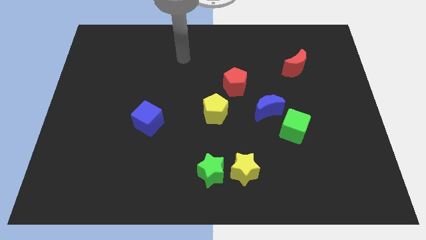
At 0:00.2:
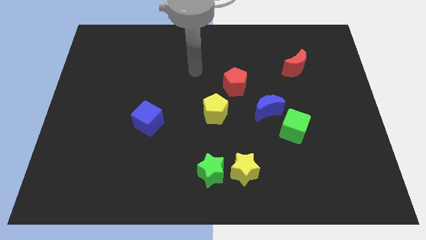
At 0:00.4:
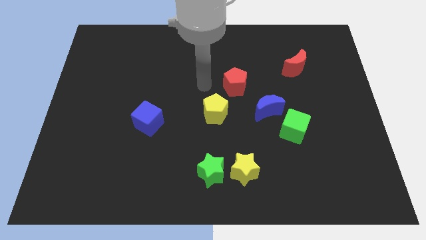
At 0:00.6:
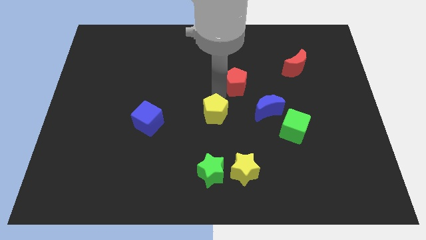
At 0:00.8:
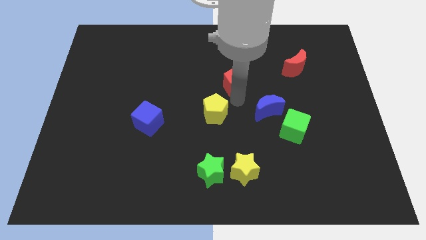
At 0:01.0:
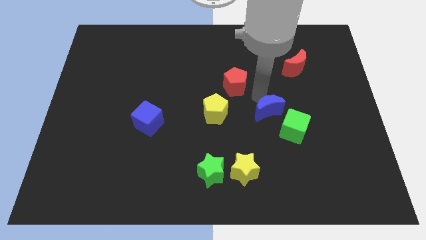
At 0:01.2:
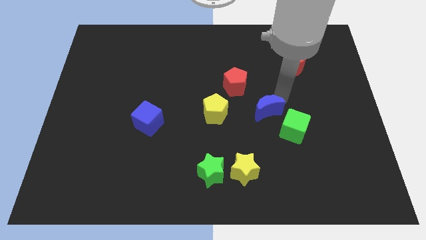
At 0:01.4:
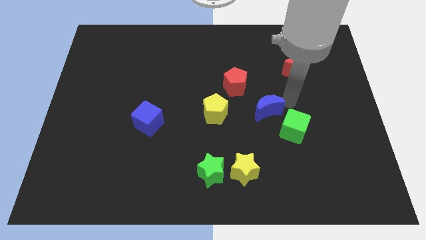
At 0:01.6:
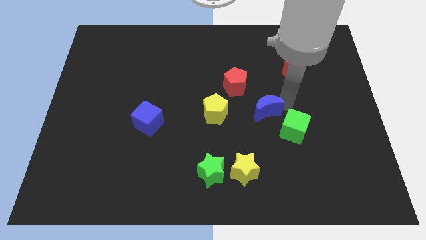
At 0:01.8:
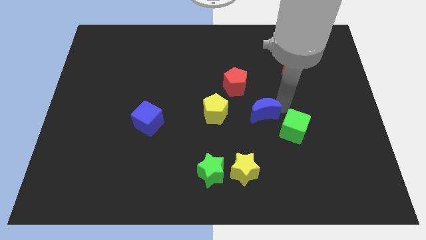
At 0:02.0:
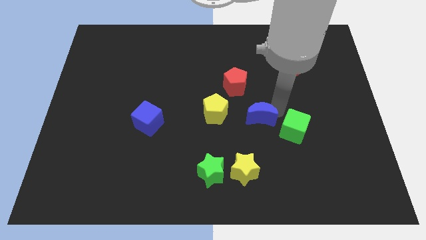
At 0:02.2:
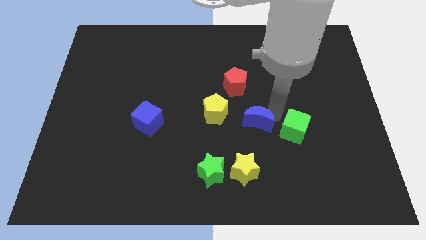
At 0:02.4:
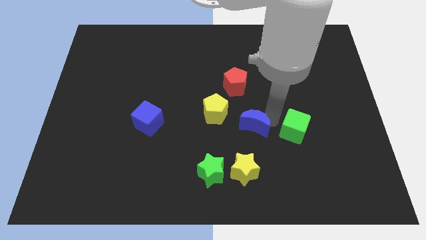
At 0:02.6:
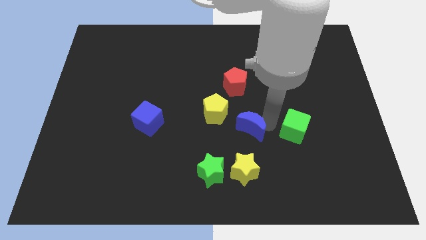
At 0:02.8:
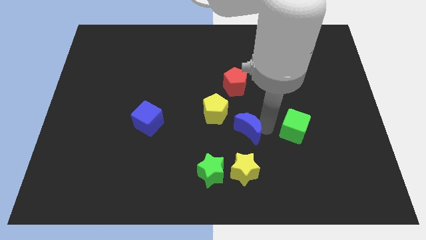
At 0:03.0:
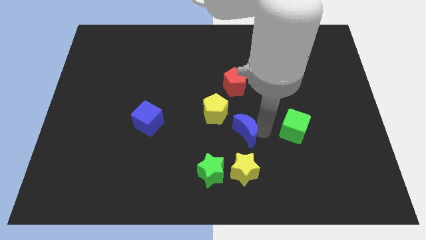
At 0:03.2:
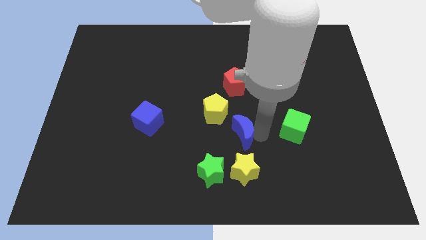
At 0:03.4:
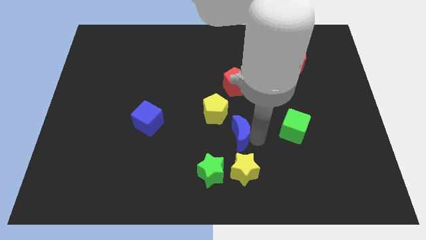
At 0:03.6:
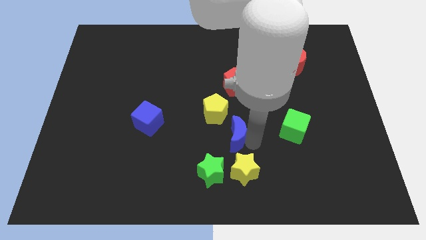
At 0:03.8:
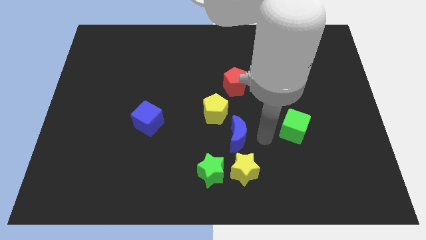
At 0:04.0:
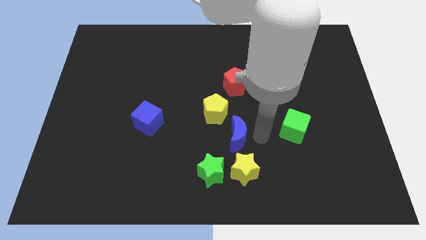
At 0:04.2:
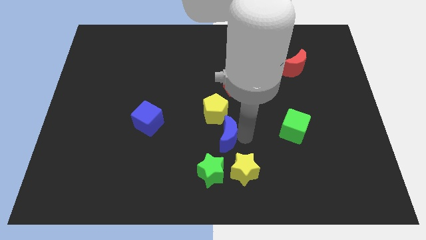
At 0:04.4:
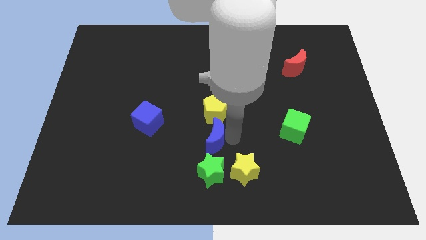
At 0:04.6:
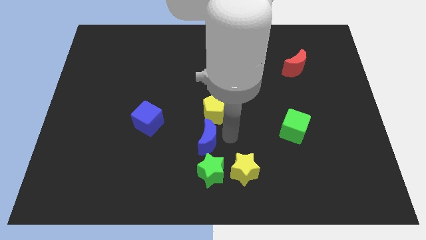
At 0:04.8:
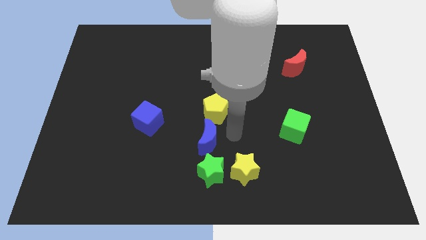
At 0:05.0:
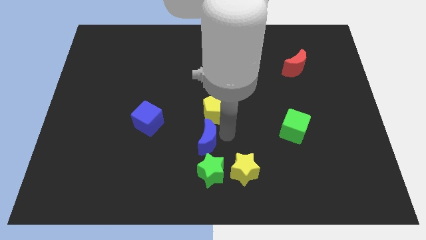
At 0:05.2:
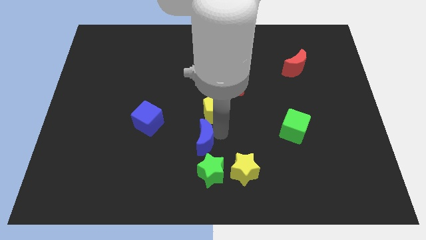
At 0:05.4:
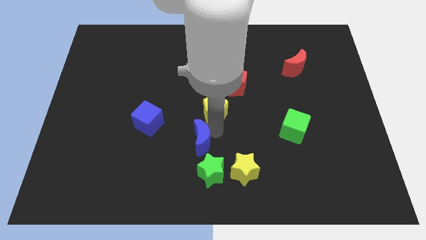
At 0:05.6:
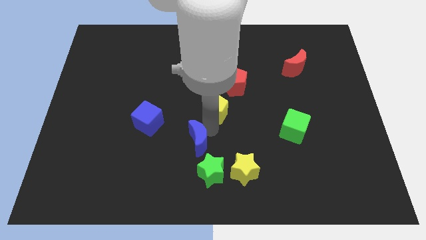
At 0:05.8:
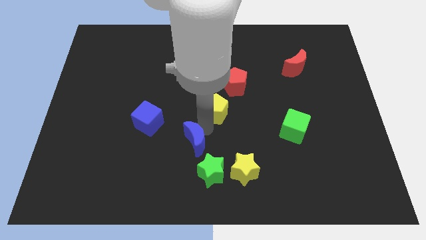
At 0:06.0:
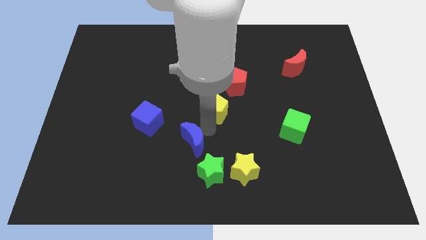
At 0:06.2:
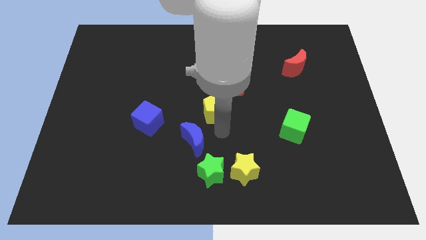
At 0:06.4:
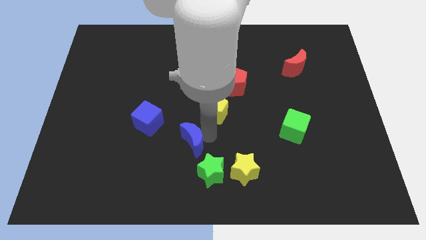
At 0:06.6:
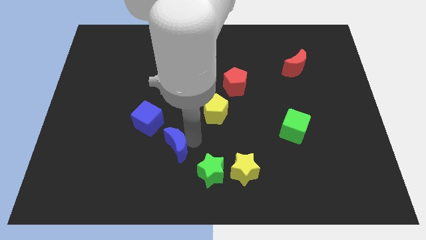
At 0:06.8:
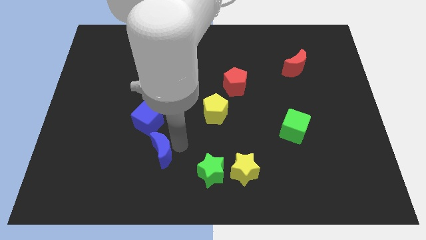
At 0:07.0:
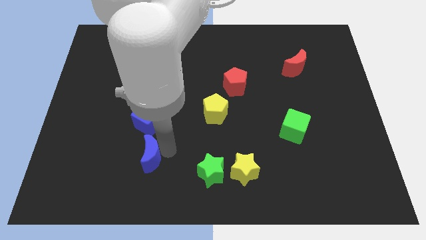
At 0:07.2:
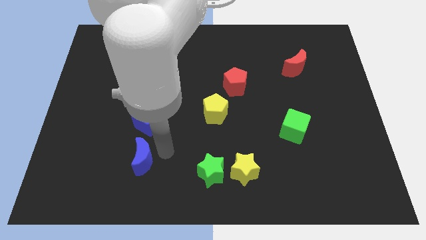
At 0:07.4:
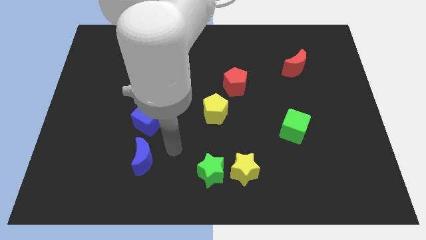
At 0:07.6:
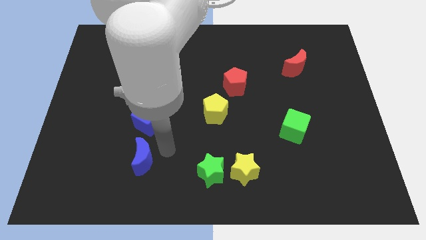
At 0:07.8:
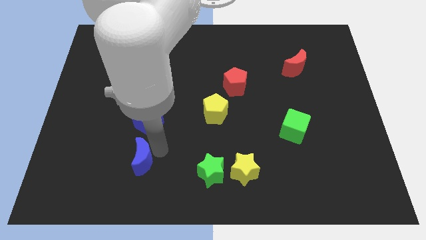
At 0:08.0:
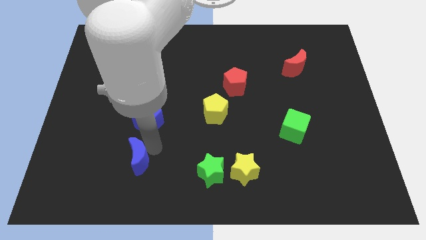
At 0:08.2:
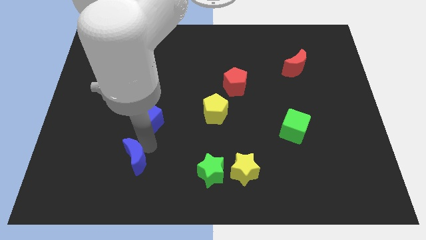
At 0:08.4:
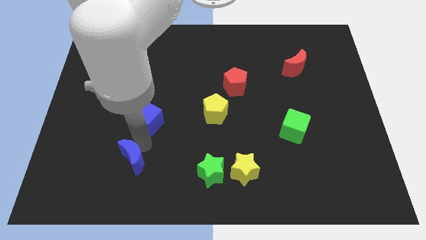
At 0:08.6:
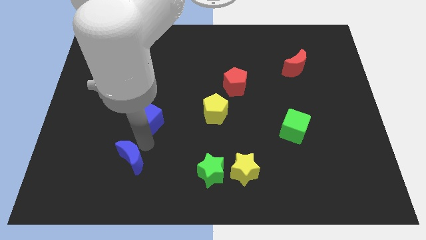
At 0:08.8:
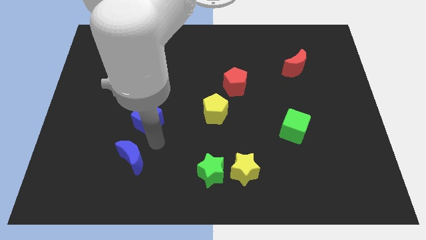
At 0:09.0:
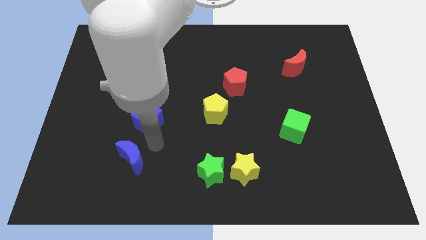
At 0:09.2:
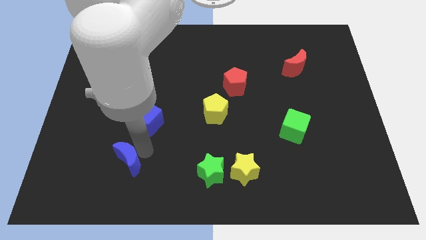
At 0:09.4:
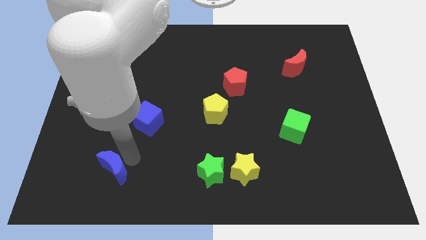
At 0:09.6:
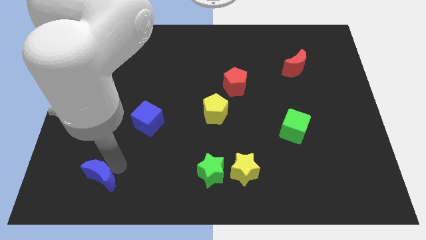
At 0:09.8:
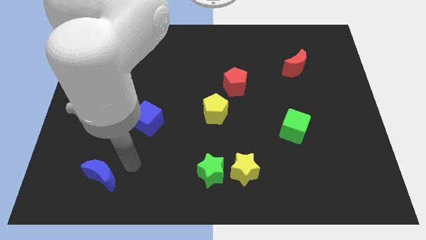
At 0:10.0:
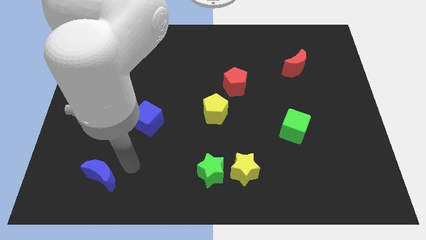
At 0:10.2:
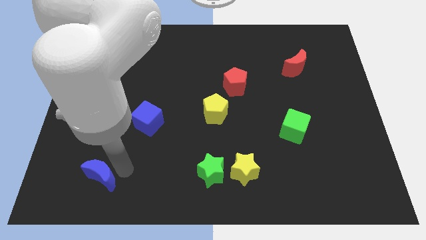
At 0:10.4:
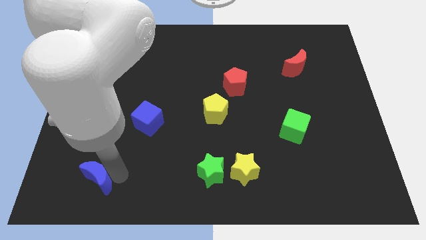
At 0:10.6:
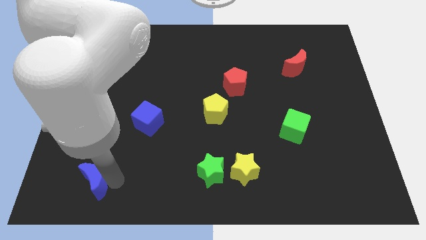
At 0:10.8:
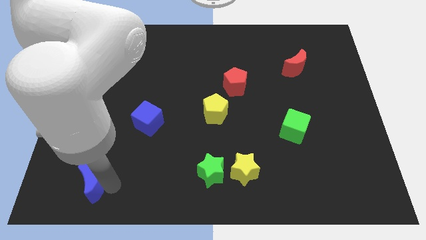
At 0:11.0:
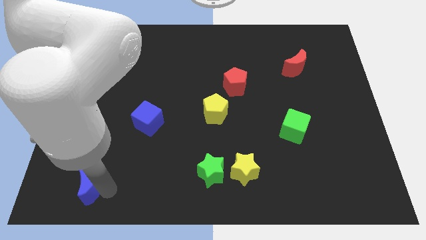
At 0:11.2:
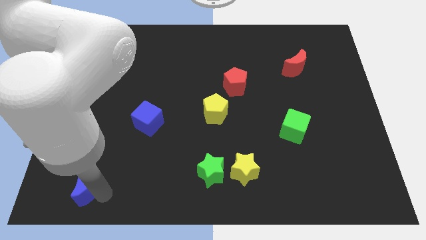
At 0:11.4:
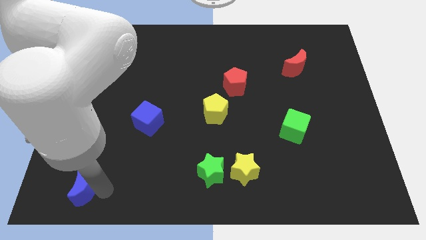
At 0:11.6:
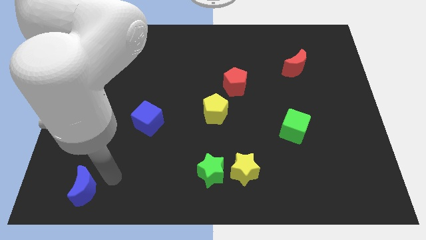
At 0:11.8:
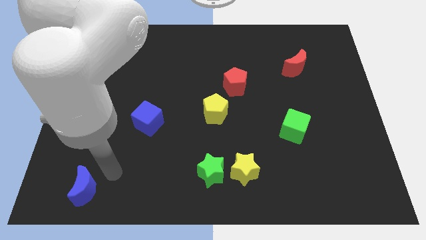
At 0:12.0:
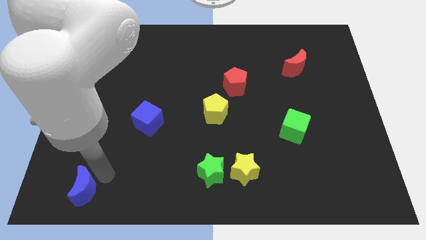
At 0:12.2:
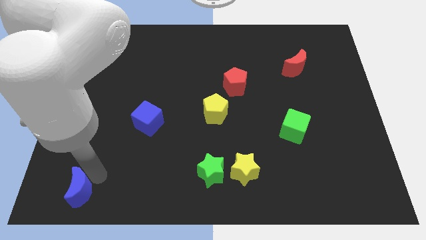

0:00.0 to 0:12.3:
move the blue moon to the lower left corner

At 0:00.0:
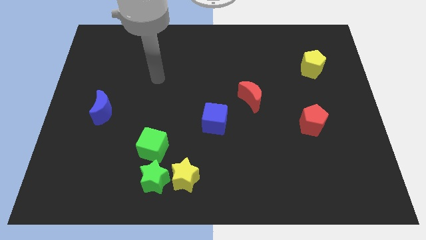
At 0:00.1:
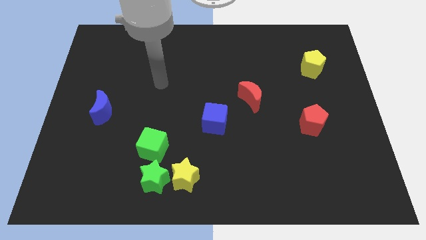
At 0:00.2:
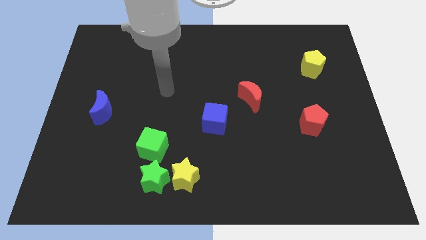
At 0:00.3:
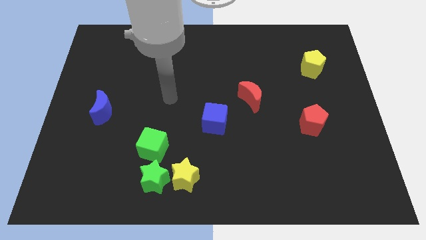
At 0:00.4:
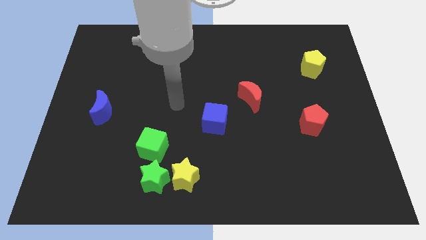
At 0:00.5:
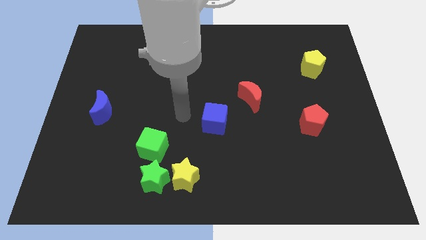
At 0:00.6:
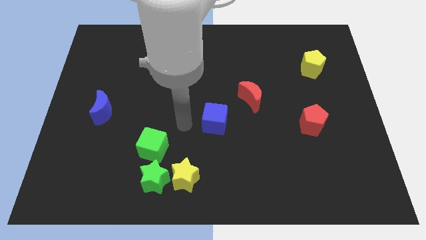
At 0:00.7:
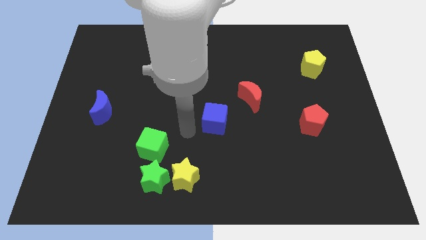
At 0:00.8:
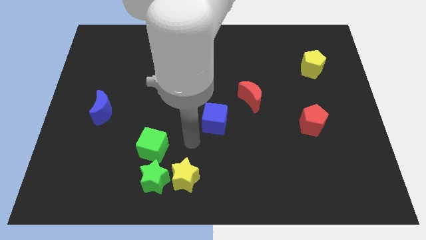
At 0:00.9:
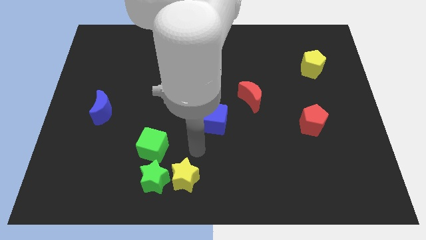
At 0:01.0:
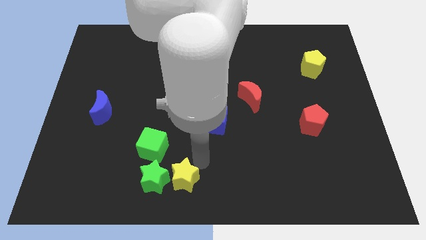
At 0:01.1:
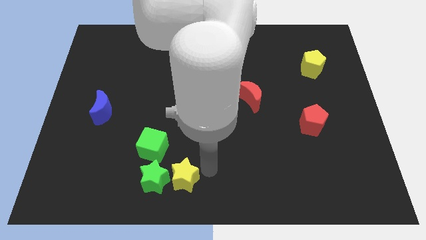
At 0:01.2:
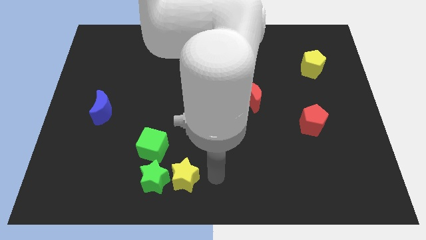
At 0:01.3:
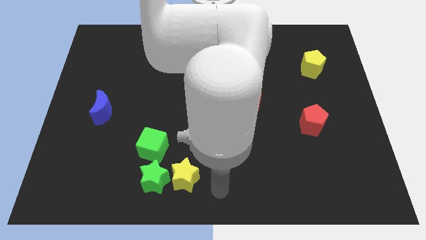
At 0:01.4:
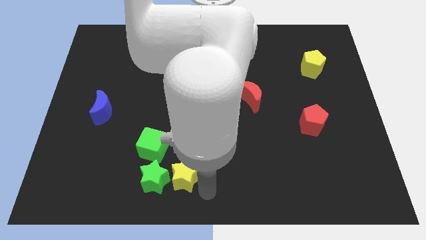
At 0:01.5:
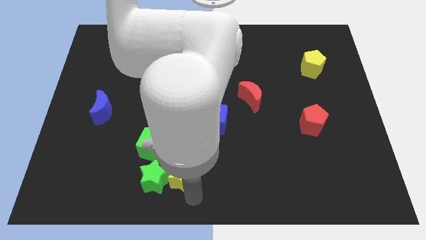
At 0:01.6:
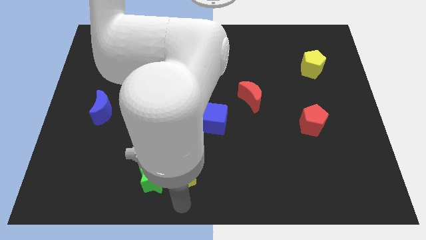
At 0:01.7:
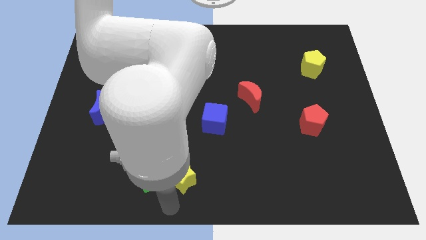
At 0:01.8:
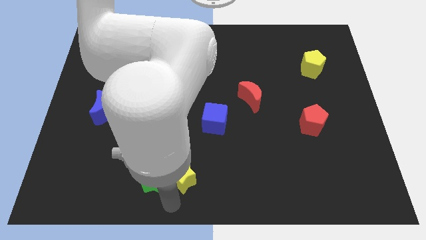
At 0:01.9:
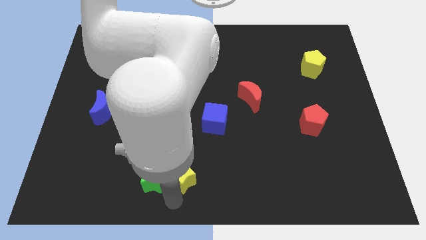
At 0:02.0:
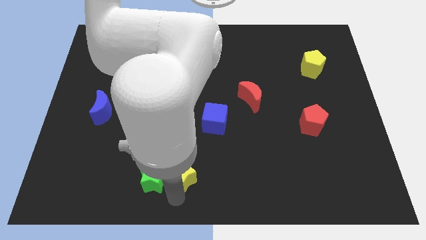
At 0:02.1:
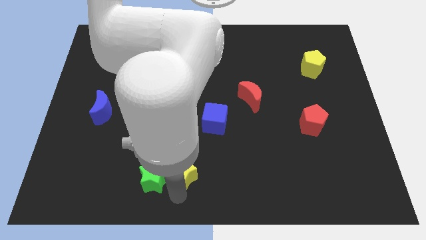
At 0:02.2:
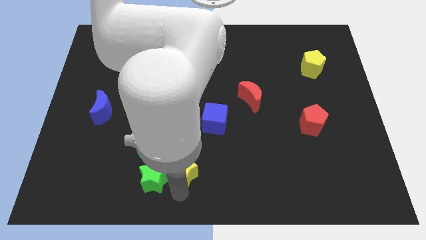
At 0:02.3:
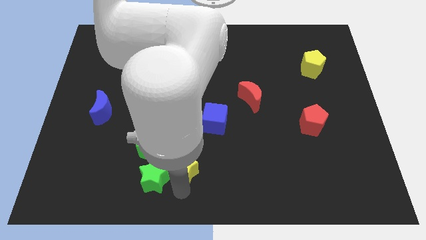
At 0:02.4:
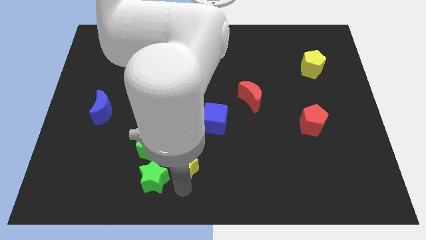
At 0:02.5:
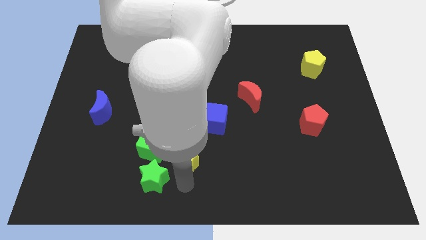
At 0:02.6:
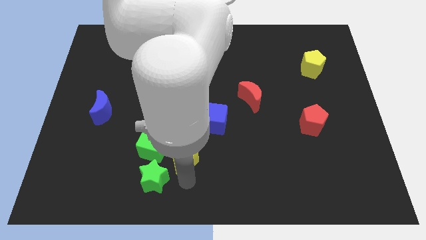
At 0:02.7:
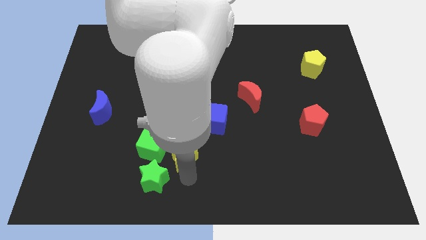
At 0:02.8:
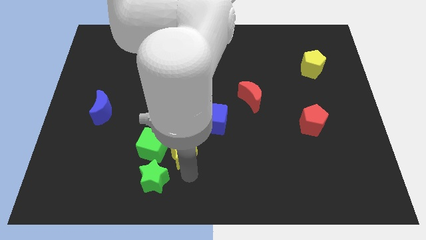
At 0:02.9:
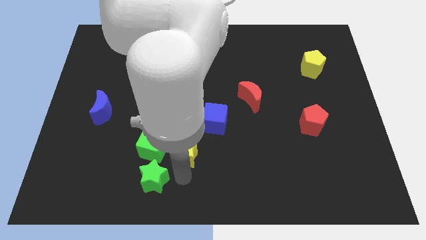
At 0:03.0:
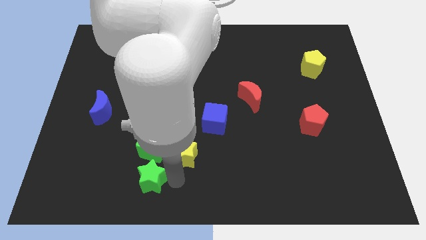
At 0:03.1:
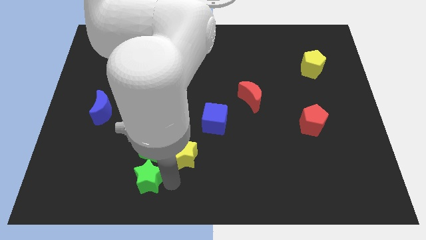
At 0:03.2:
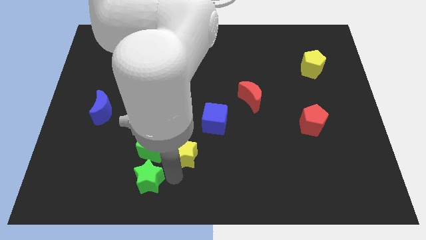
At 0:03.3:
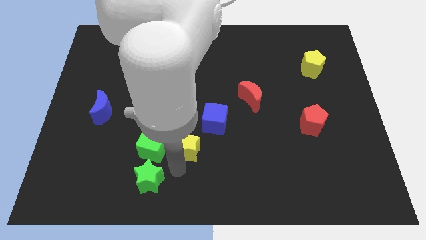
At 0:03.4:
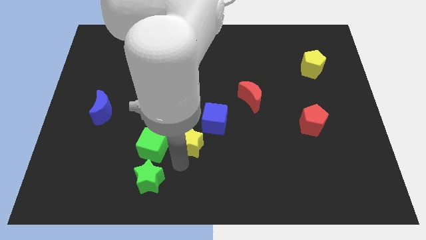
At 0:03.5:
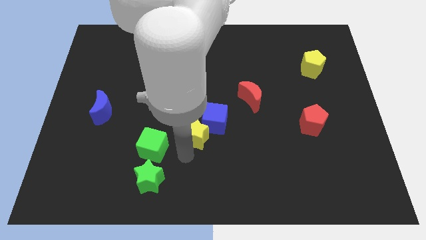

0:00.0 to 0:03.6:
slide the yellow star to the middle of the board
